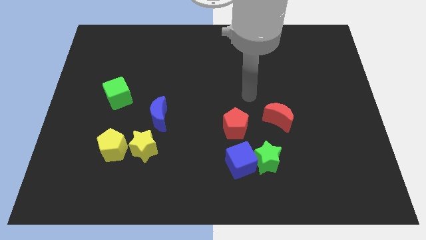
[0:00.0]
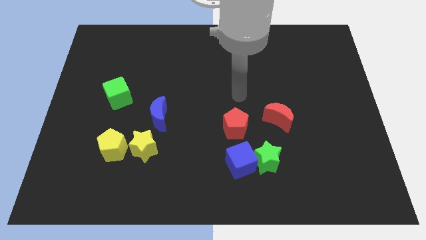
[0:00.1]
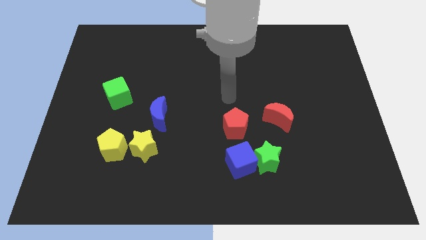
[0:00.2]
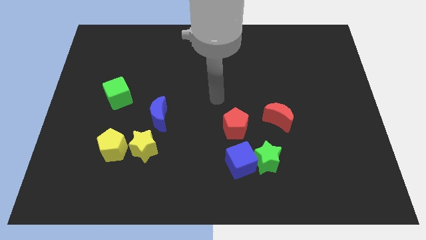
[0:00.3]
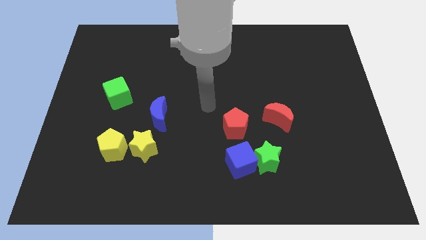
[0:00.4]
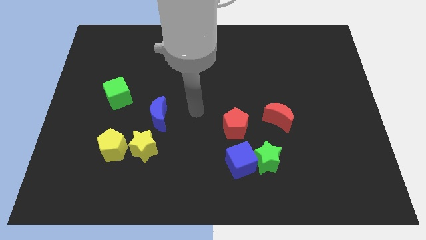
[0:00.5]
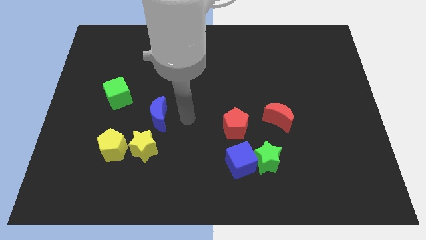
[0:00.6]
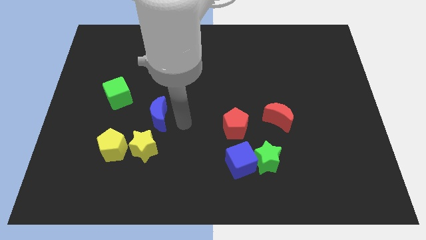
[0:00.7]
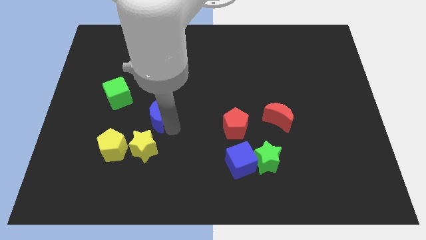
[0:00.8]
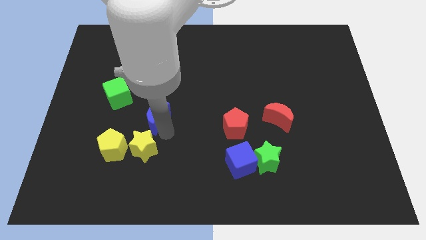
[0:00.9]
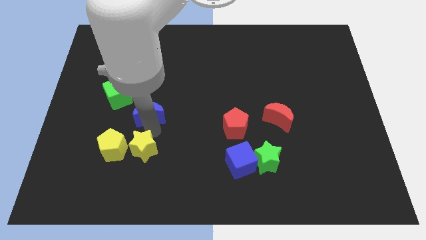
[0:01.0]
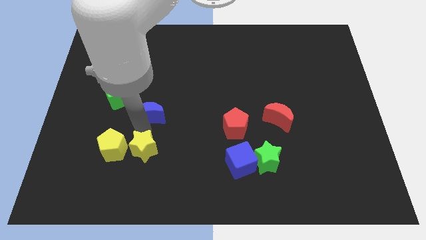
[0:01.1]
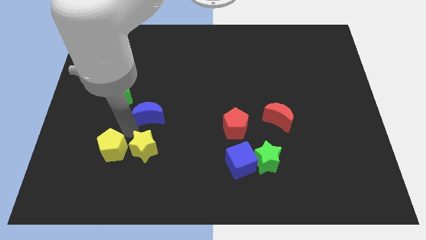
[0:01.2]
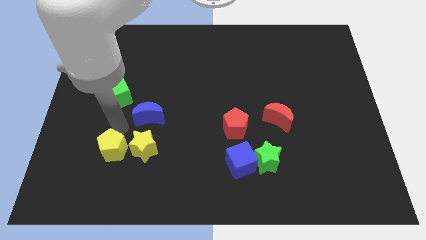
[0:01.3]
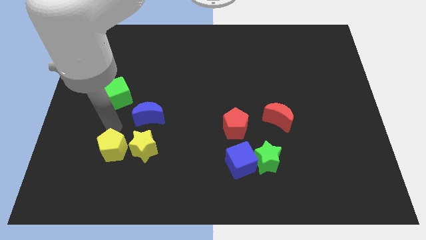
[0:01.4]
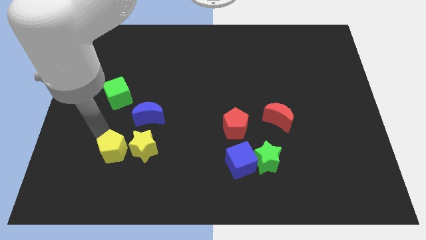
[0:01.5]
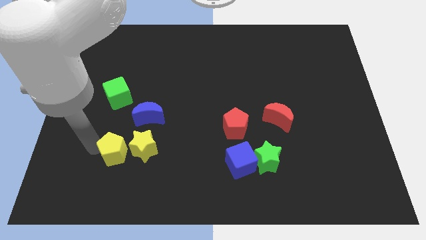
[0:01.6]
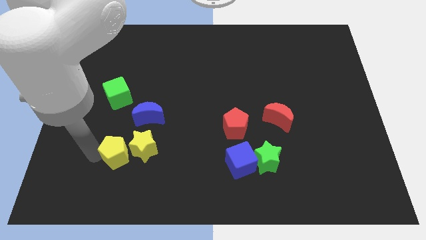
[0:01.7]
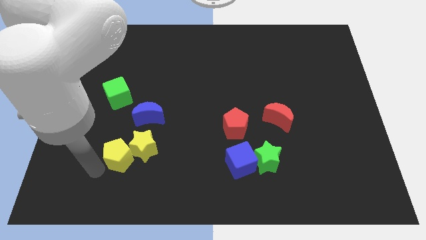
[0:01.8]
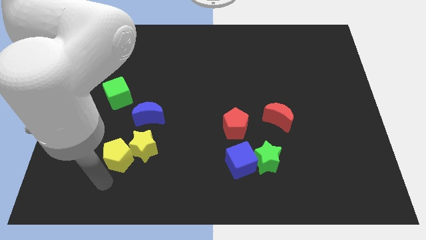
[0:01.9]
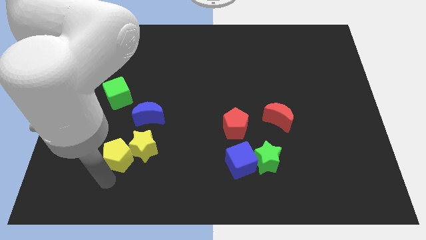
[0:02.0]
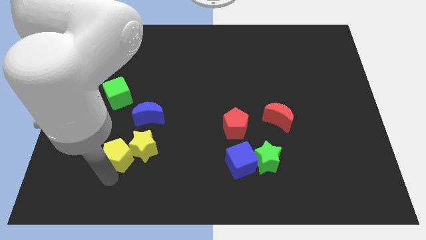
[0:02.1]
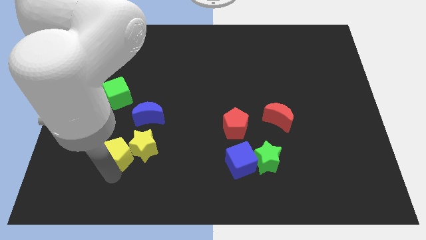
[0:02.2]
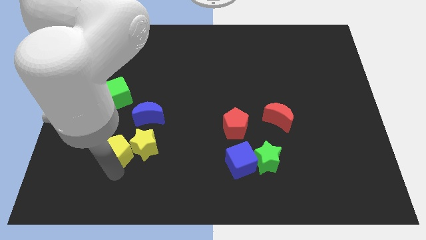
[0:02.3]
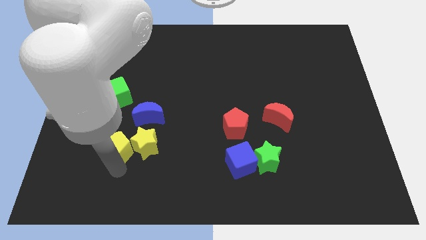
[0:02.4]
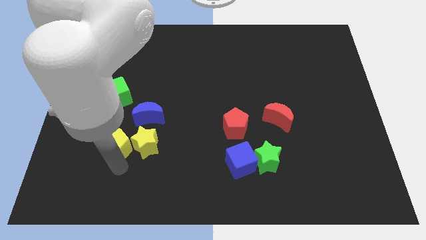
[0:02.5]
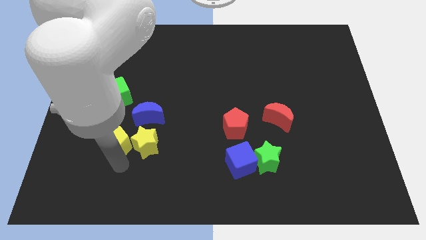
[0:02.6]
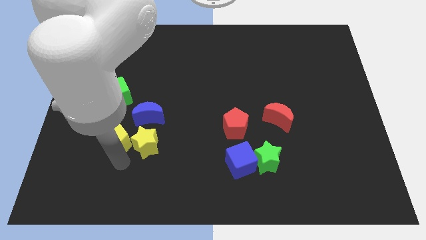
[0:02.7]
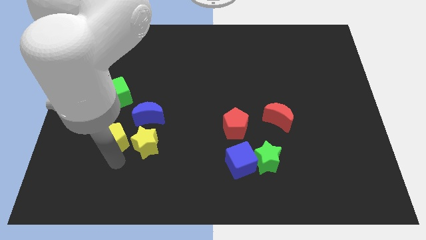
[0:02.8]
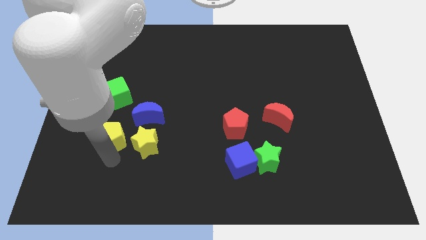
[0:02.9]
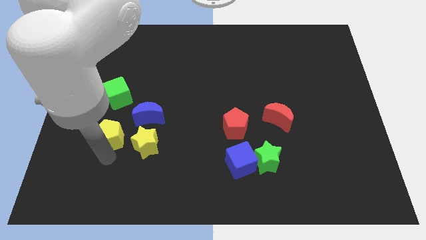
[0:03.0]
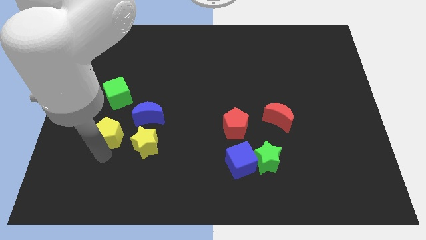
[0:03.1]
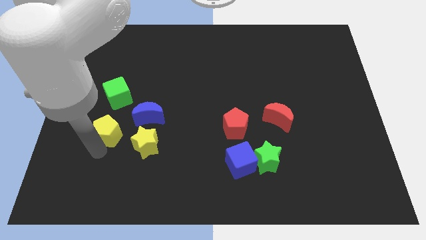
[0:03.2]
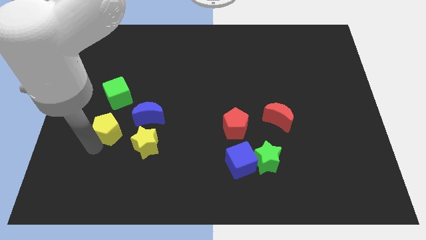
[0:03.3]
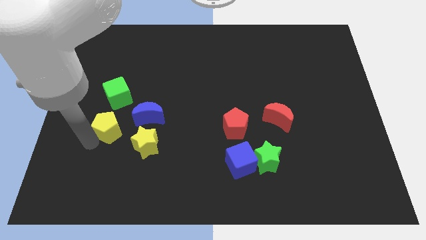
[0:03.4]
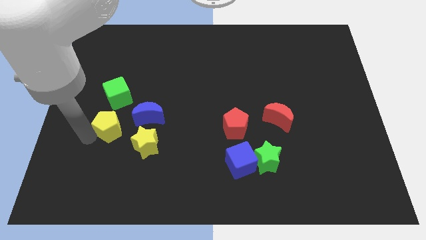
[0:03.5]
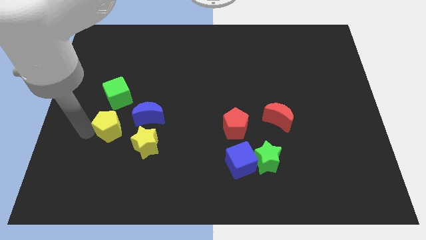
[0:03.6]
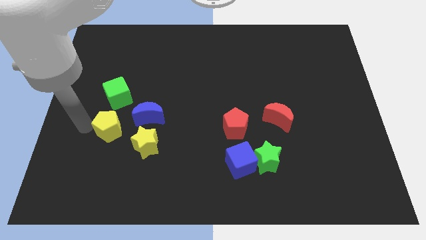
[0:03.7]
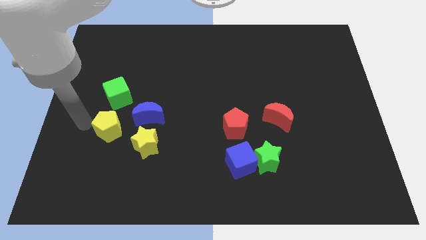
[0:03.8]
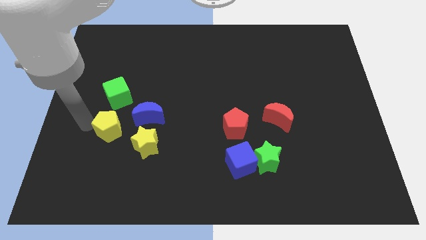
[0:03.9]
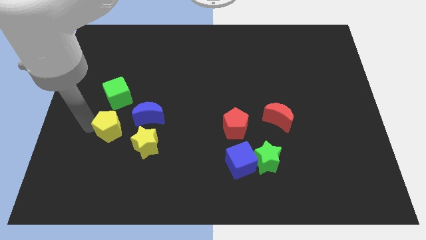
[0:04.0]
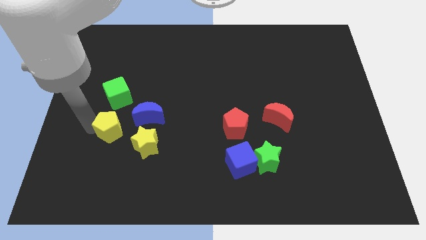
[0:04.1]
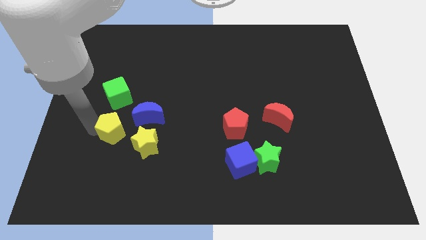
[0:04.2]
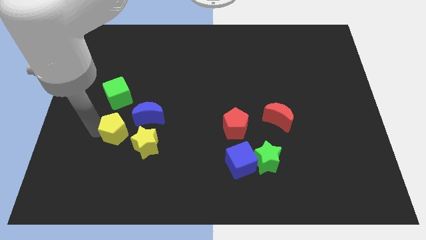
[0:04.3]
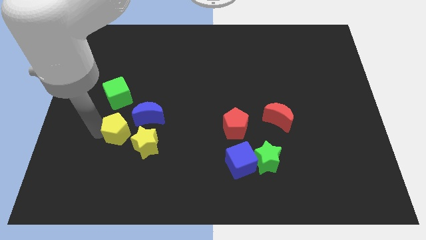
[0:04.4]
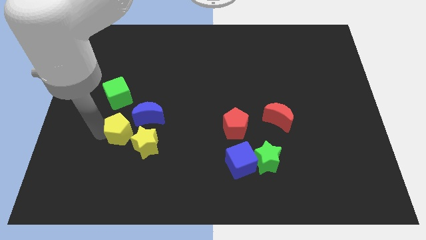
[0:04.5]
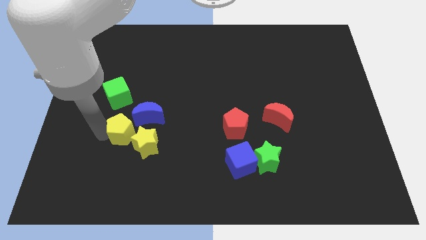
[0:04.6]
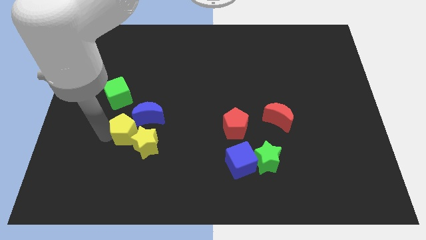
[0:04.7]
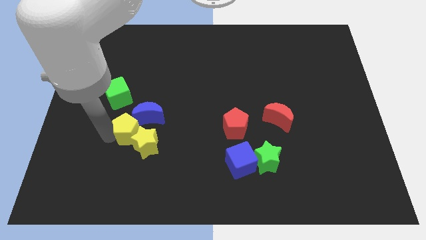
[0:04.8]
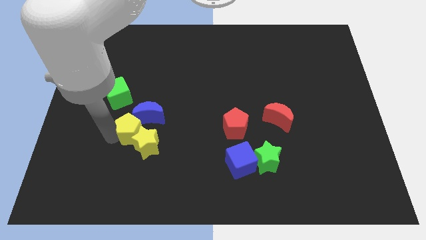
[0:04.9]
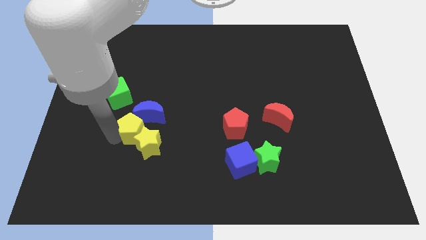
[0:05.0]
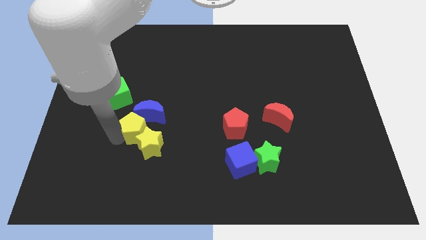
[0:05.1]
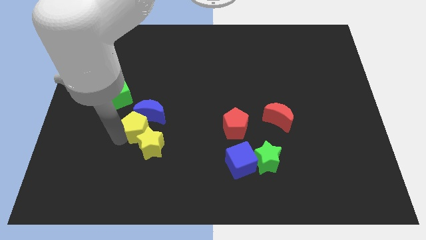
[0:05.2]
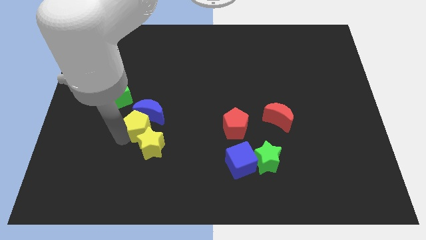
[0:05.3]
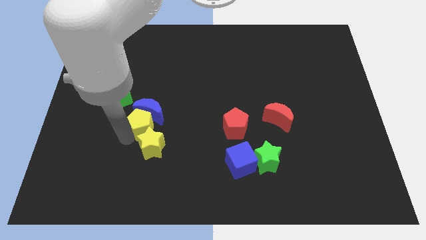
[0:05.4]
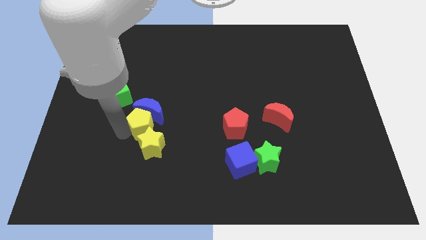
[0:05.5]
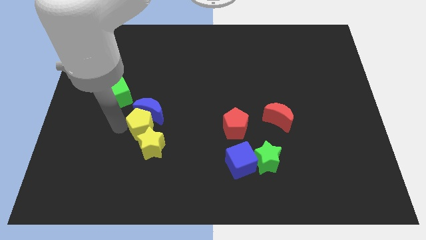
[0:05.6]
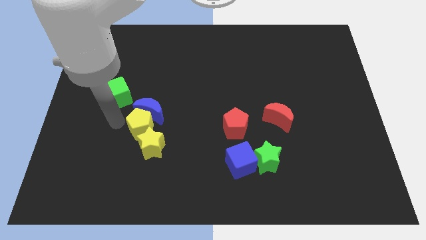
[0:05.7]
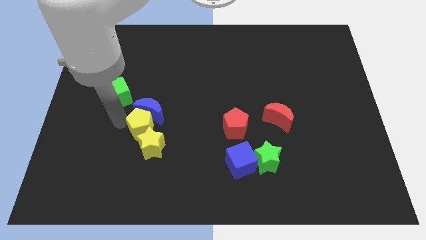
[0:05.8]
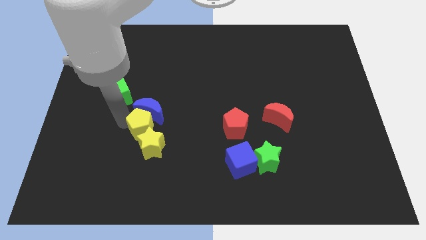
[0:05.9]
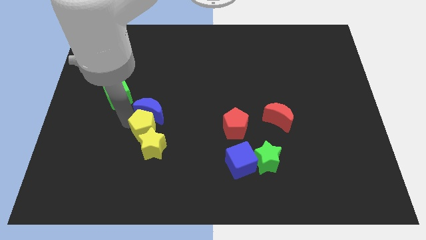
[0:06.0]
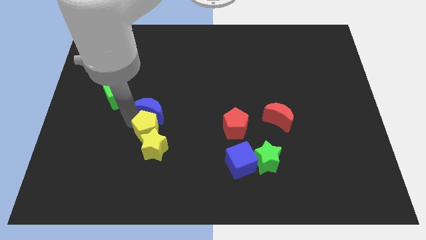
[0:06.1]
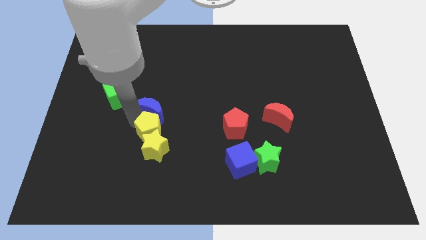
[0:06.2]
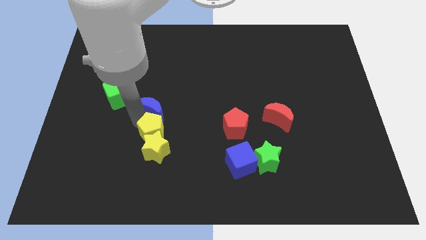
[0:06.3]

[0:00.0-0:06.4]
move the yellow pentagon right a bit

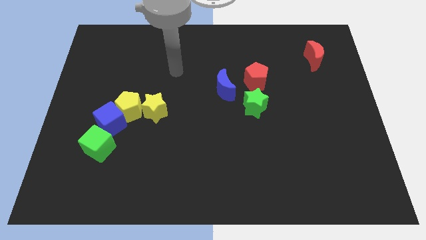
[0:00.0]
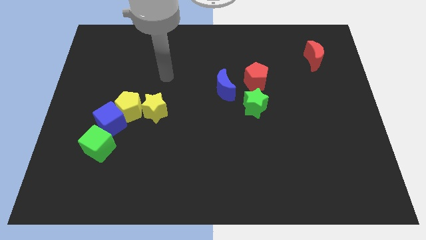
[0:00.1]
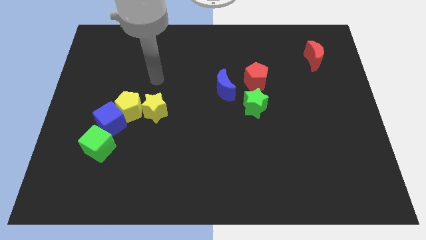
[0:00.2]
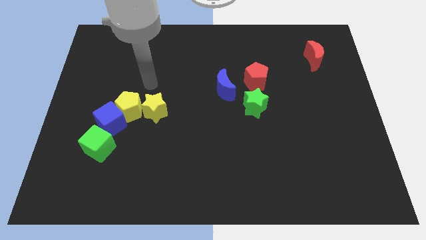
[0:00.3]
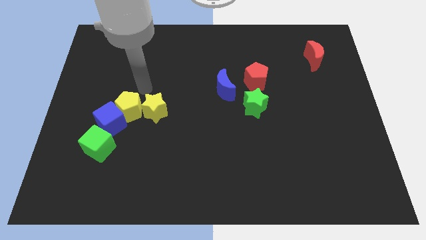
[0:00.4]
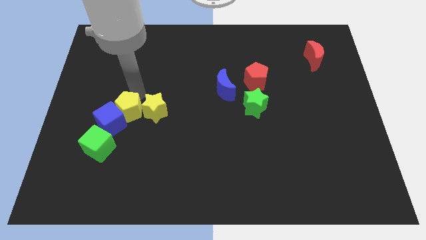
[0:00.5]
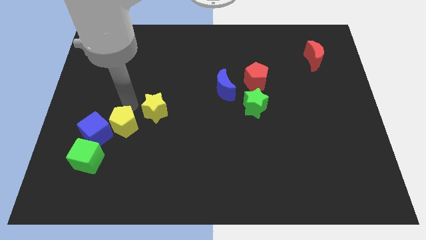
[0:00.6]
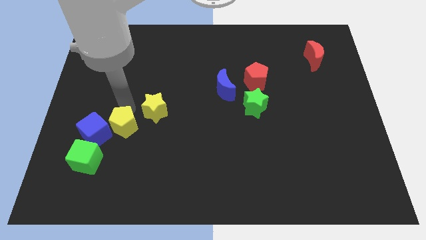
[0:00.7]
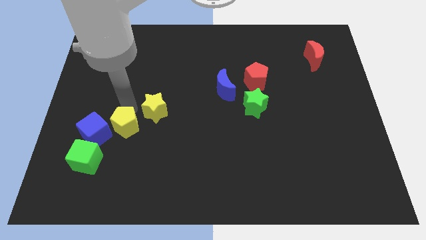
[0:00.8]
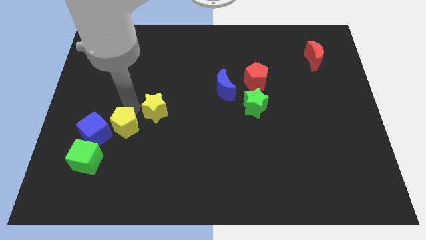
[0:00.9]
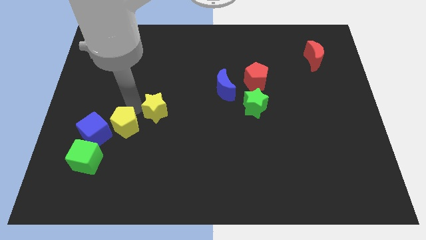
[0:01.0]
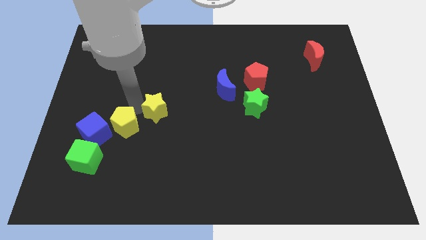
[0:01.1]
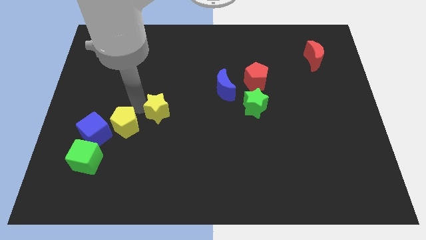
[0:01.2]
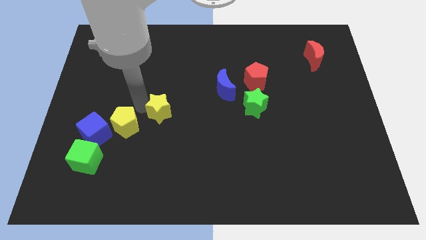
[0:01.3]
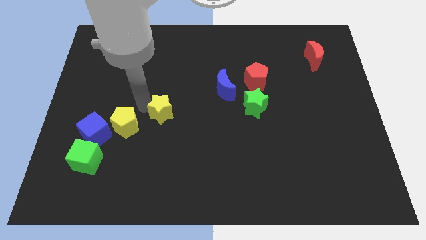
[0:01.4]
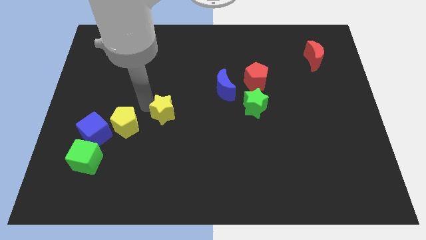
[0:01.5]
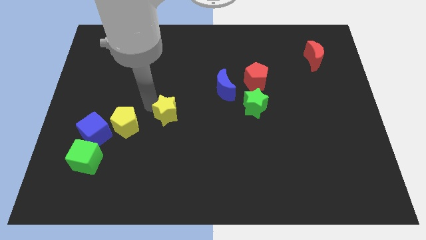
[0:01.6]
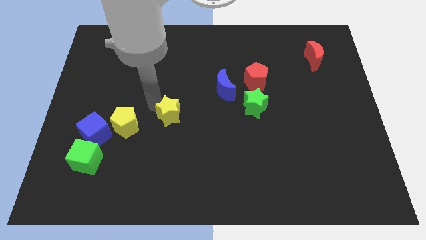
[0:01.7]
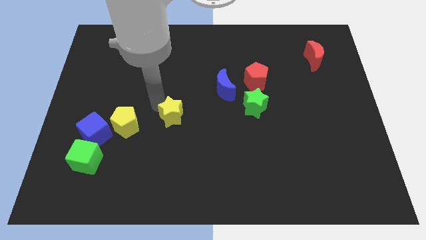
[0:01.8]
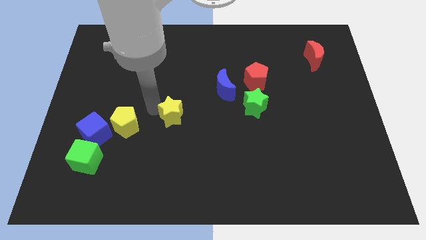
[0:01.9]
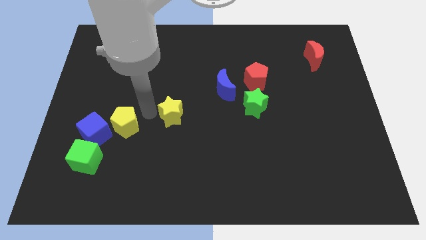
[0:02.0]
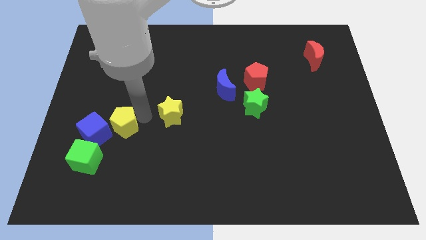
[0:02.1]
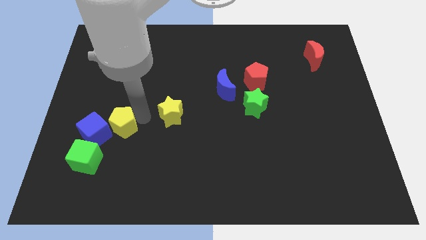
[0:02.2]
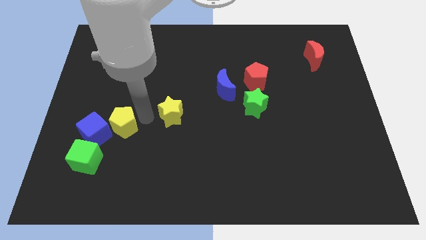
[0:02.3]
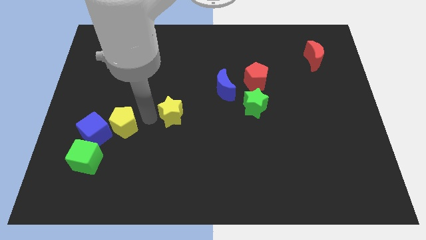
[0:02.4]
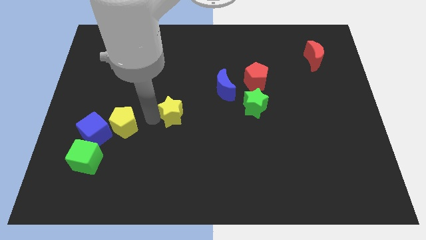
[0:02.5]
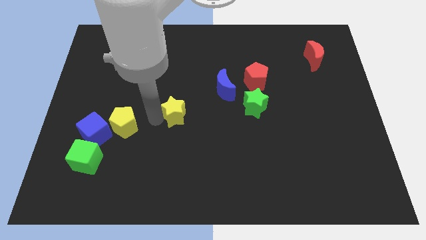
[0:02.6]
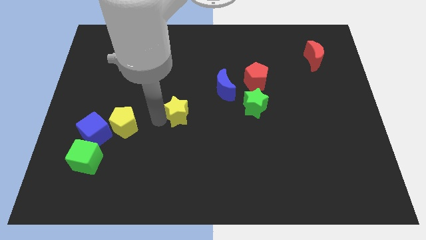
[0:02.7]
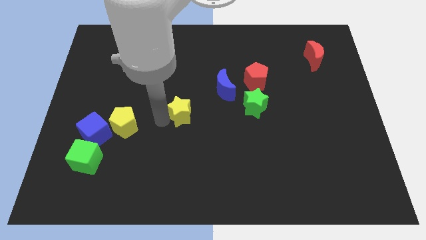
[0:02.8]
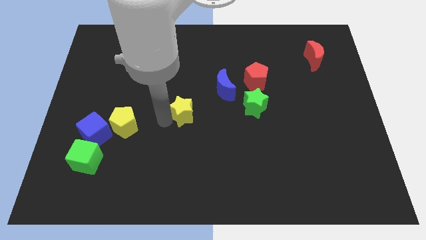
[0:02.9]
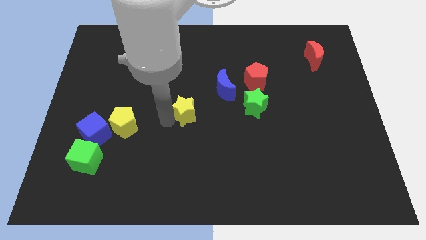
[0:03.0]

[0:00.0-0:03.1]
slightly push the yellow star right
